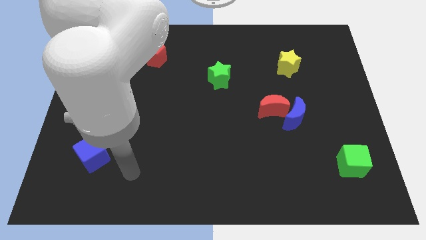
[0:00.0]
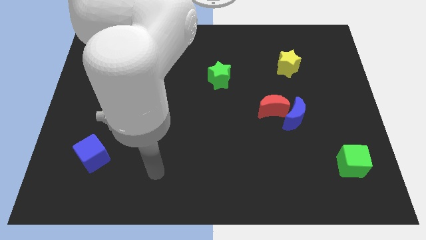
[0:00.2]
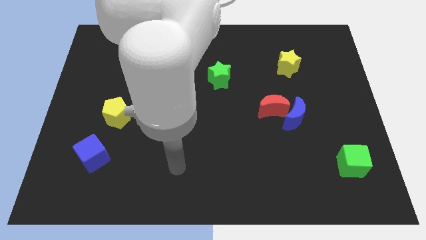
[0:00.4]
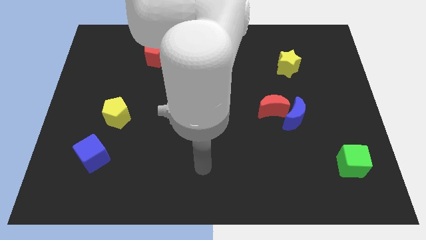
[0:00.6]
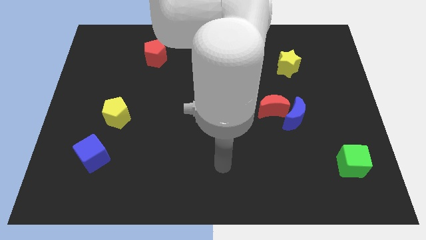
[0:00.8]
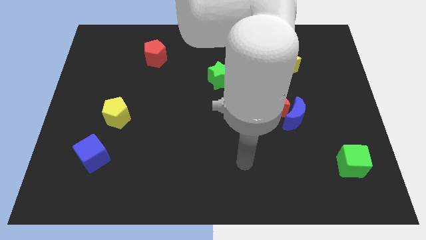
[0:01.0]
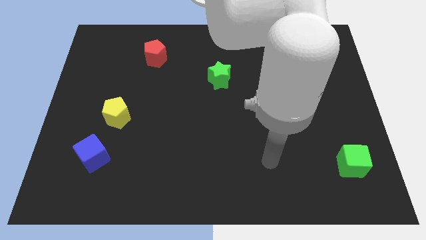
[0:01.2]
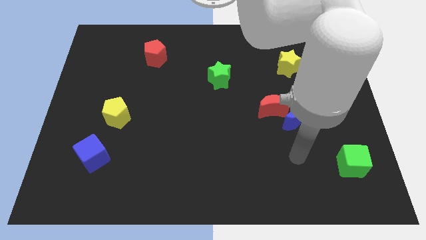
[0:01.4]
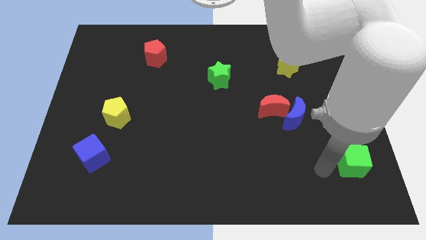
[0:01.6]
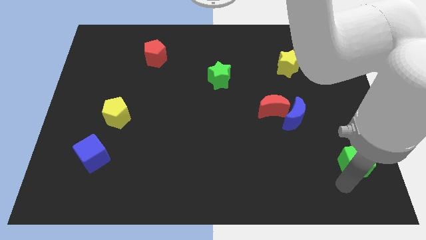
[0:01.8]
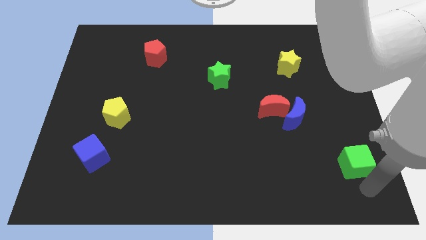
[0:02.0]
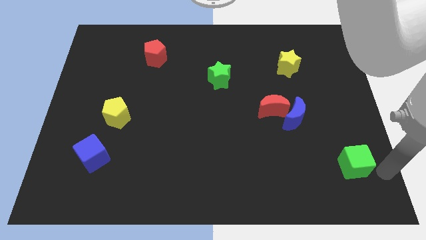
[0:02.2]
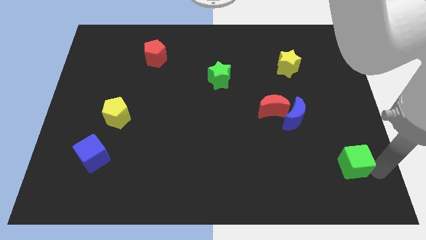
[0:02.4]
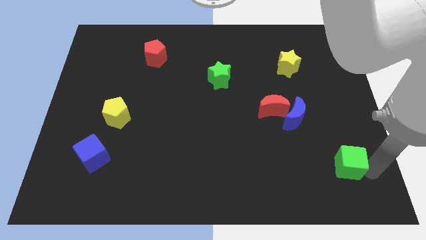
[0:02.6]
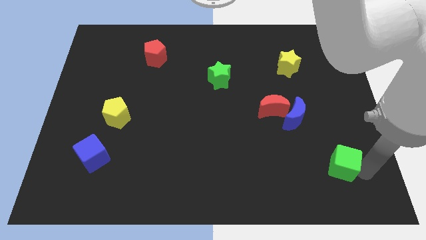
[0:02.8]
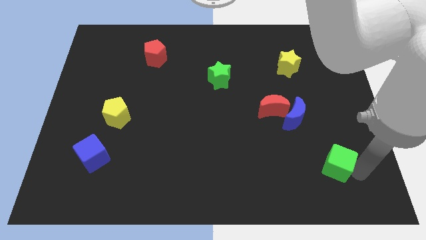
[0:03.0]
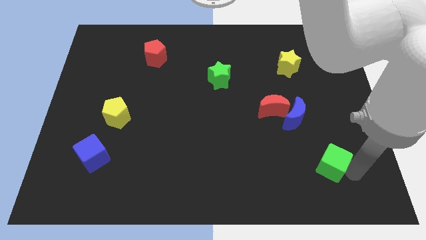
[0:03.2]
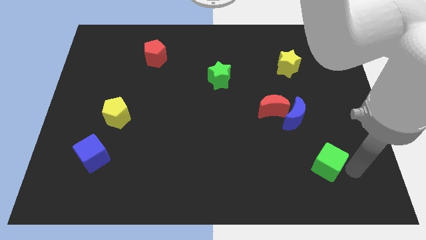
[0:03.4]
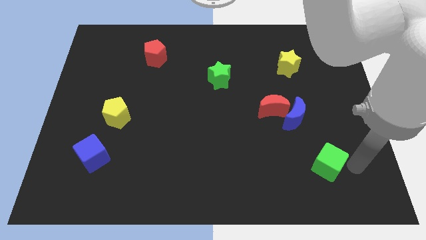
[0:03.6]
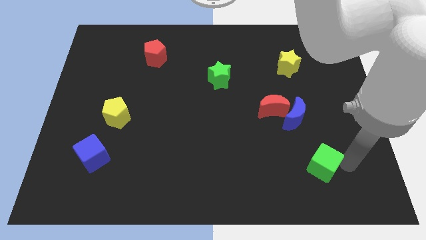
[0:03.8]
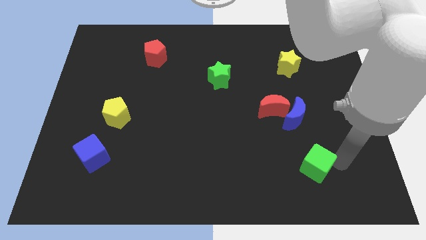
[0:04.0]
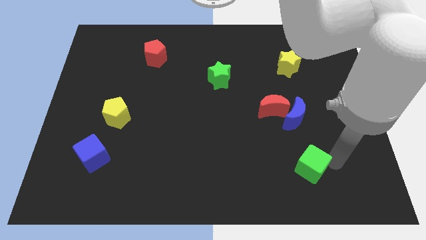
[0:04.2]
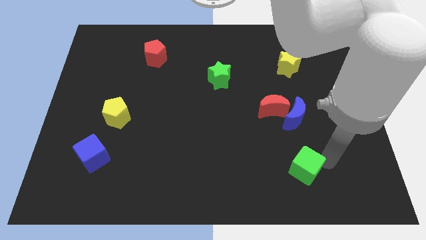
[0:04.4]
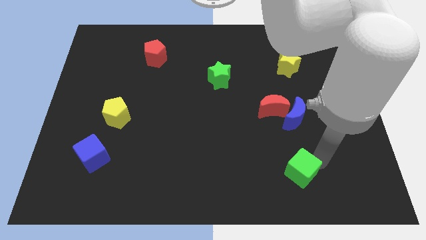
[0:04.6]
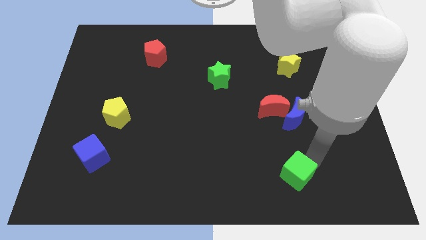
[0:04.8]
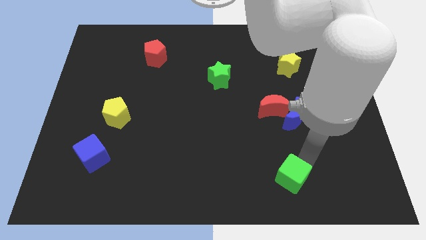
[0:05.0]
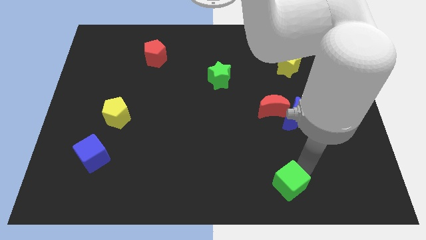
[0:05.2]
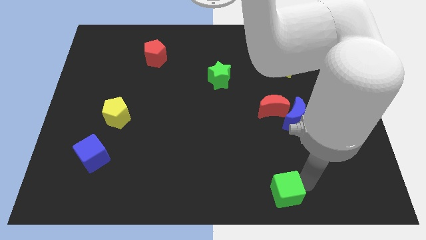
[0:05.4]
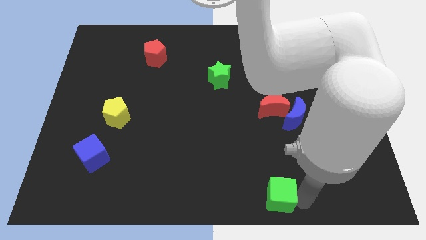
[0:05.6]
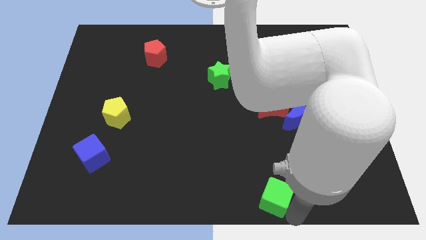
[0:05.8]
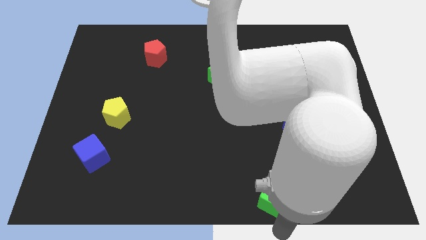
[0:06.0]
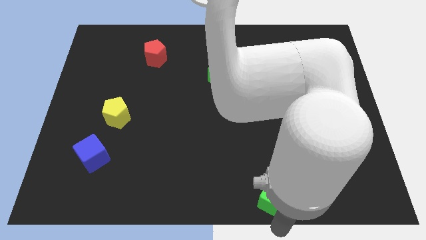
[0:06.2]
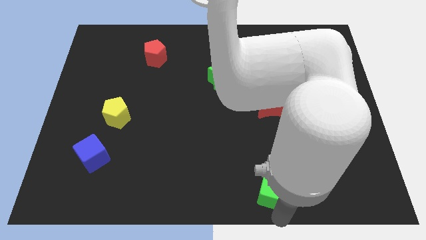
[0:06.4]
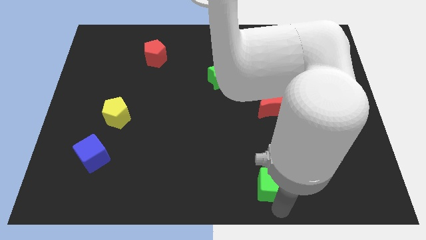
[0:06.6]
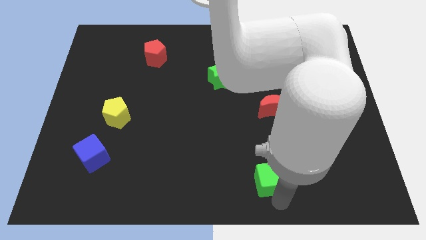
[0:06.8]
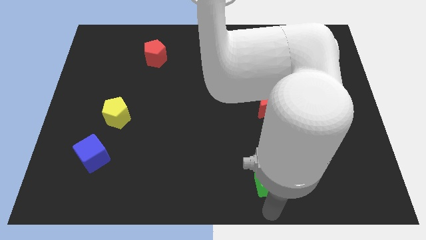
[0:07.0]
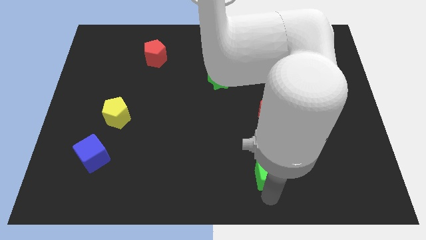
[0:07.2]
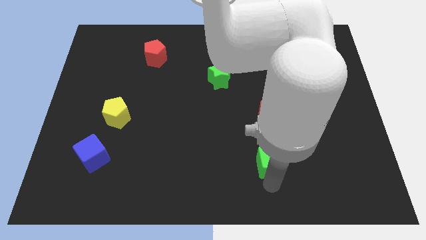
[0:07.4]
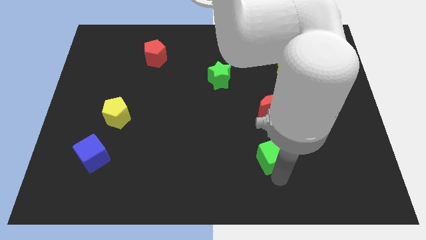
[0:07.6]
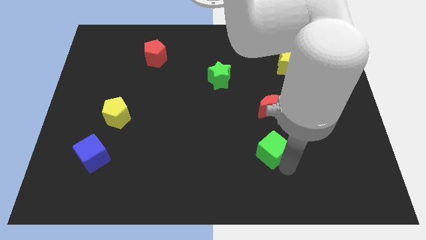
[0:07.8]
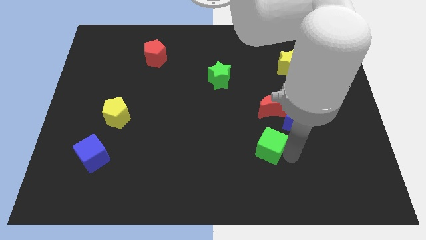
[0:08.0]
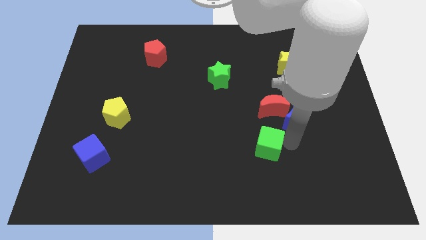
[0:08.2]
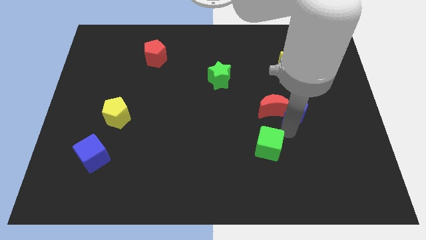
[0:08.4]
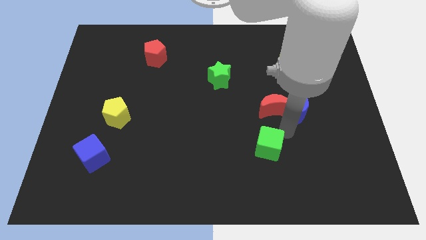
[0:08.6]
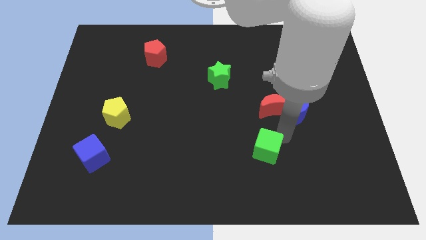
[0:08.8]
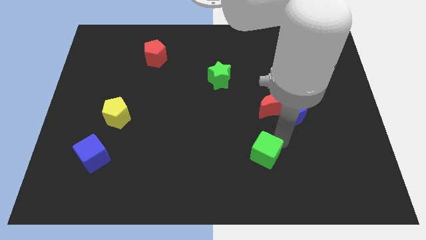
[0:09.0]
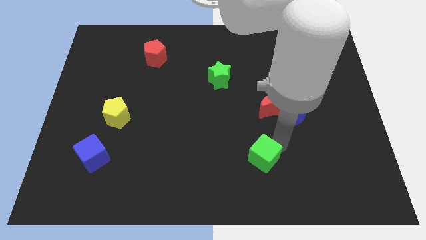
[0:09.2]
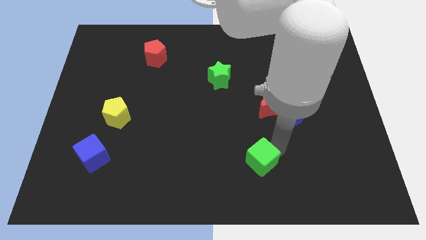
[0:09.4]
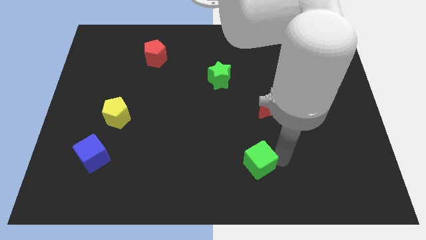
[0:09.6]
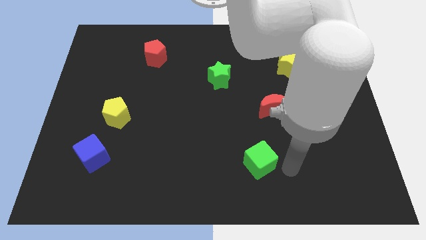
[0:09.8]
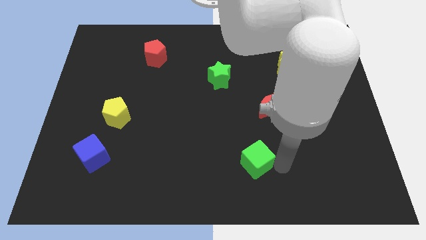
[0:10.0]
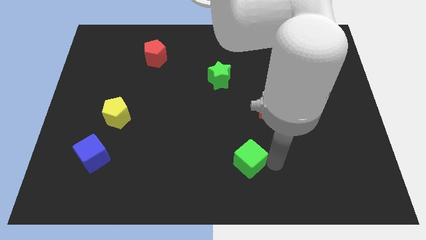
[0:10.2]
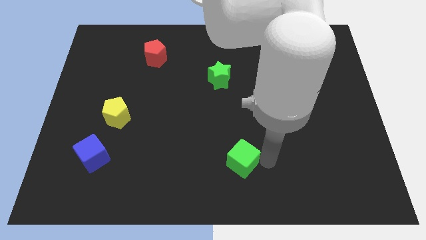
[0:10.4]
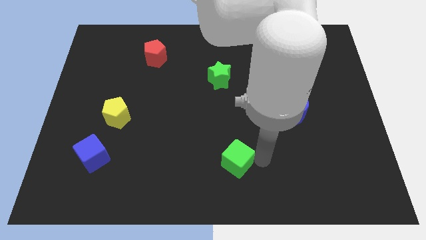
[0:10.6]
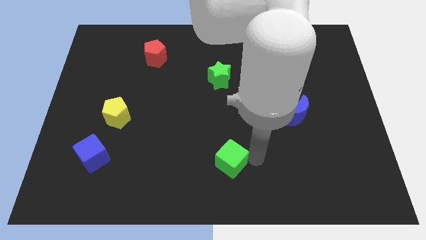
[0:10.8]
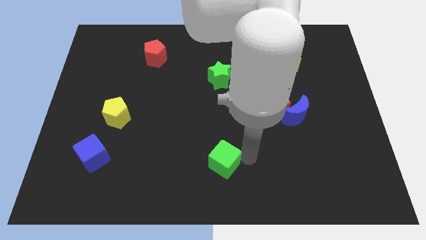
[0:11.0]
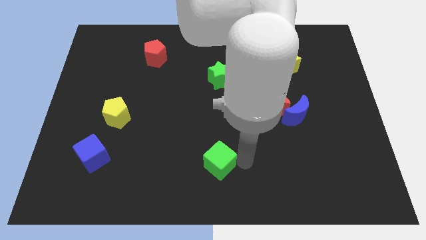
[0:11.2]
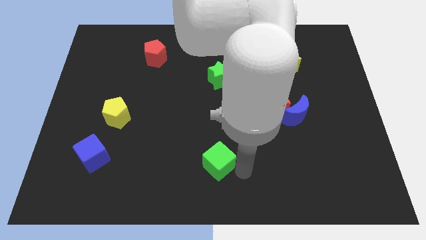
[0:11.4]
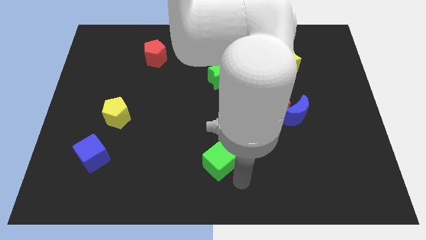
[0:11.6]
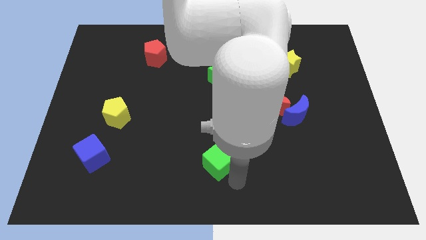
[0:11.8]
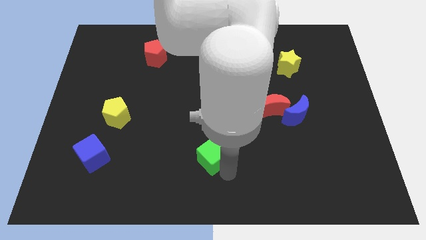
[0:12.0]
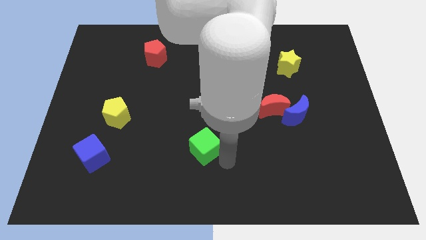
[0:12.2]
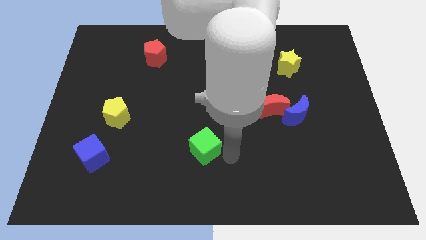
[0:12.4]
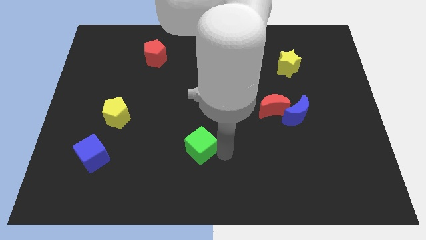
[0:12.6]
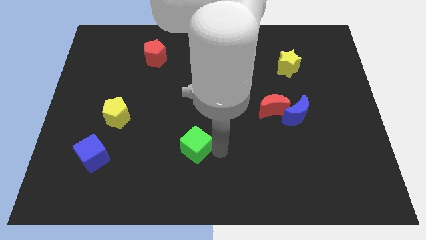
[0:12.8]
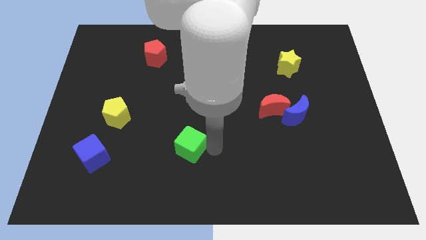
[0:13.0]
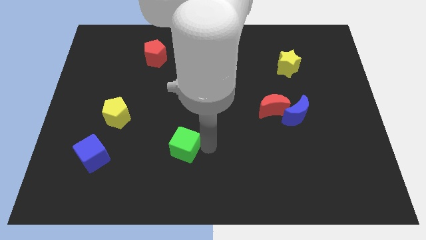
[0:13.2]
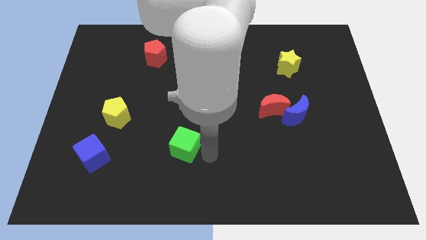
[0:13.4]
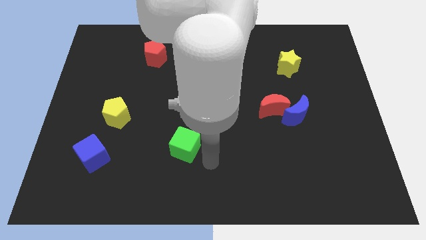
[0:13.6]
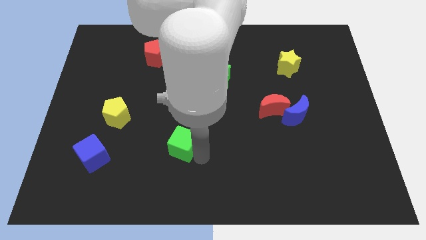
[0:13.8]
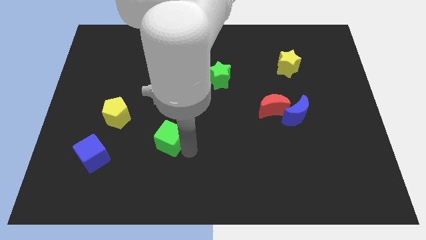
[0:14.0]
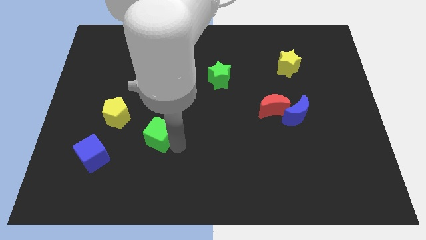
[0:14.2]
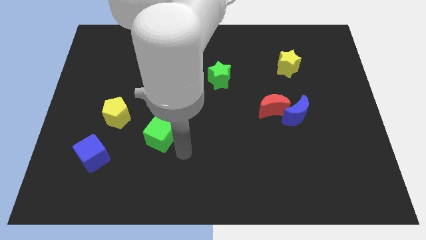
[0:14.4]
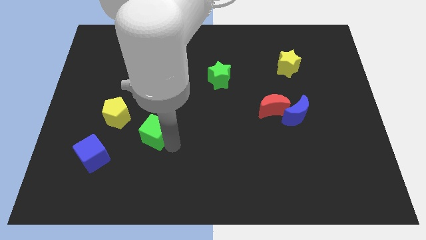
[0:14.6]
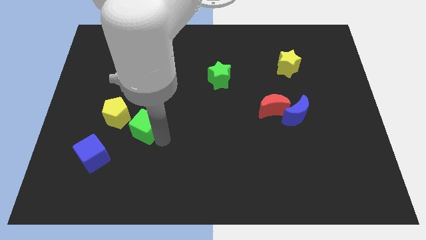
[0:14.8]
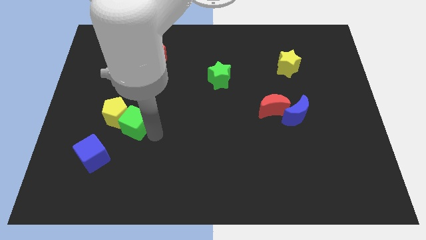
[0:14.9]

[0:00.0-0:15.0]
slide the green cube next to the yellow pentagon
